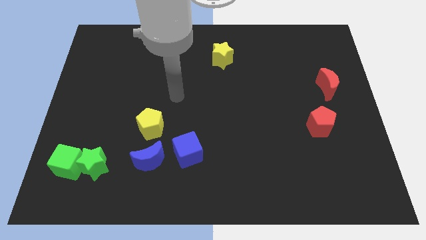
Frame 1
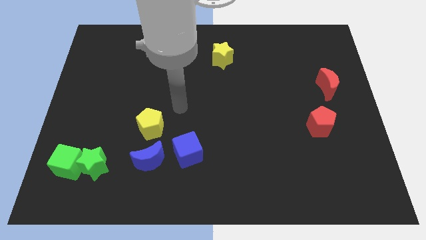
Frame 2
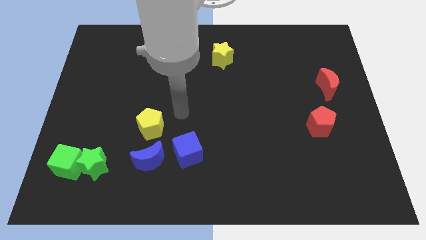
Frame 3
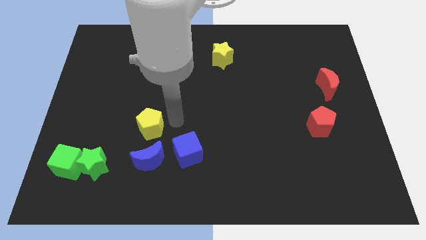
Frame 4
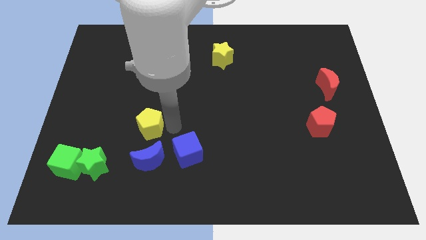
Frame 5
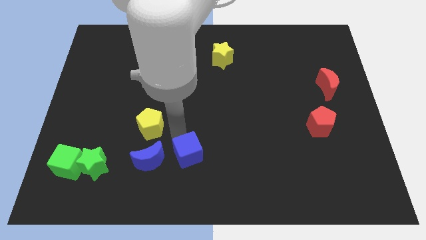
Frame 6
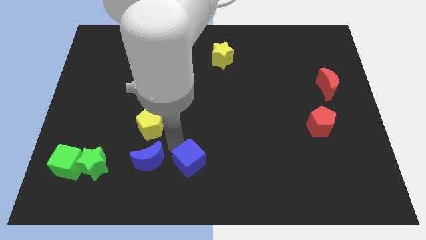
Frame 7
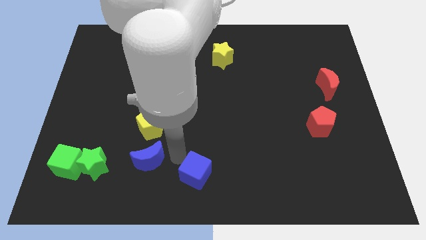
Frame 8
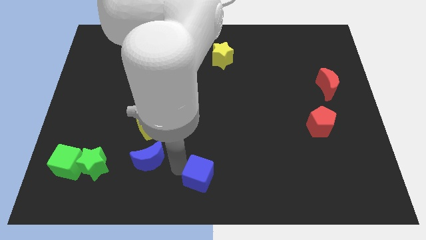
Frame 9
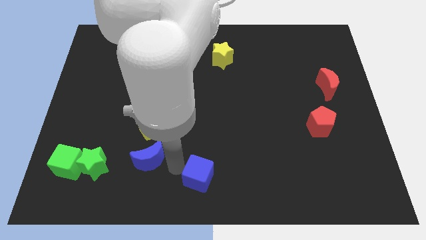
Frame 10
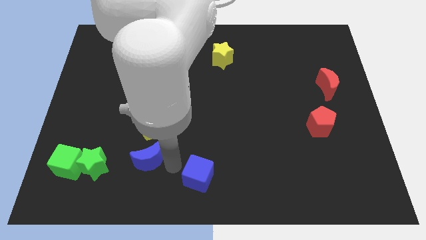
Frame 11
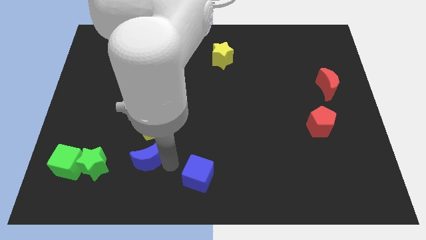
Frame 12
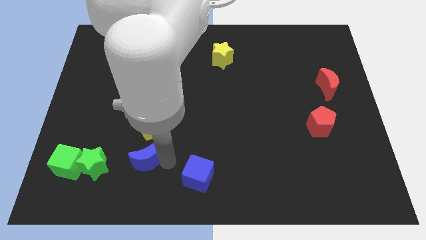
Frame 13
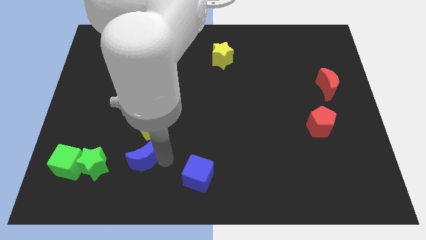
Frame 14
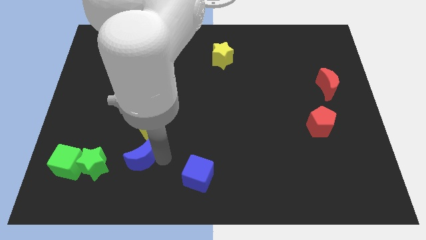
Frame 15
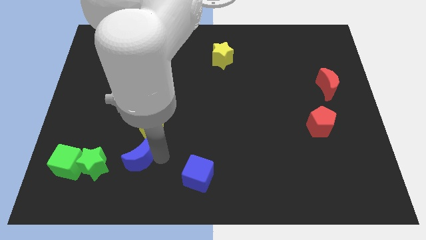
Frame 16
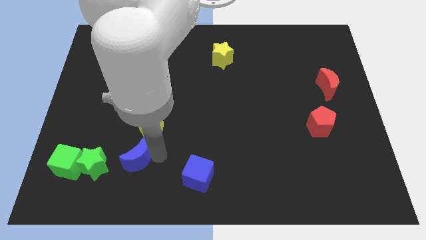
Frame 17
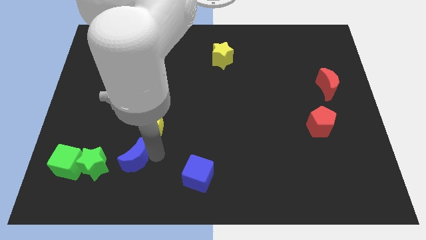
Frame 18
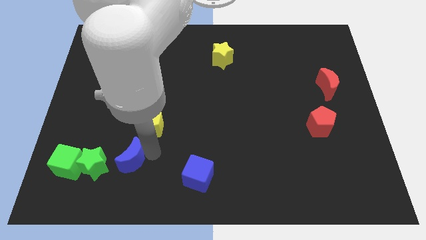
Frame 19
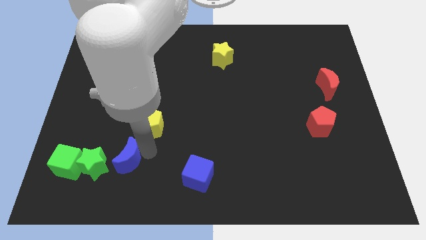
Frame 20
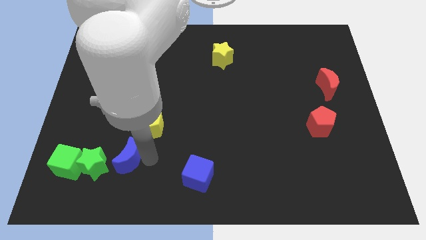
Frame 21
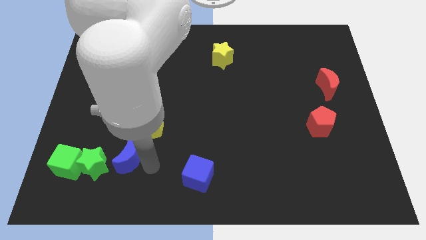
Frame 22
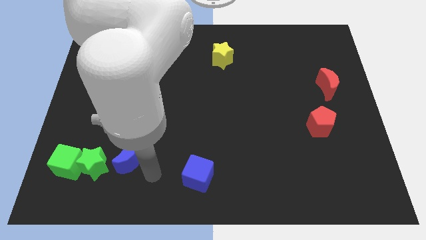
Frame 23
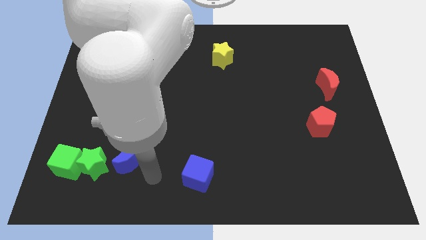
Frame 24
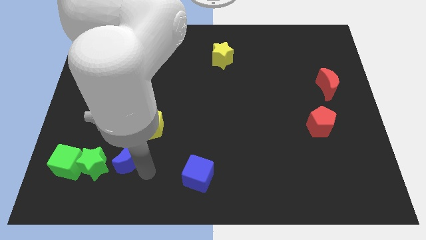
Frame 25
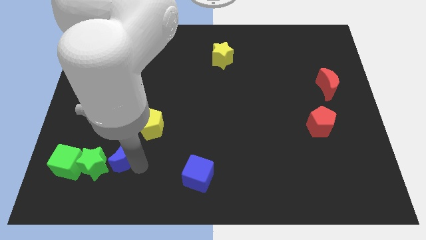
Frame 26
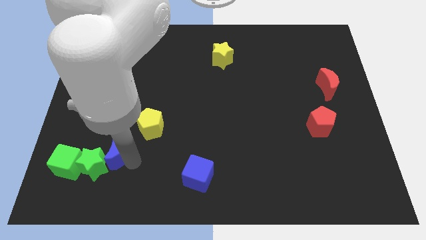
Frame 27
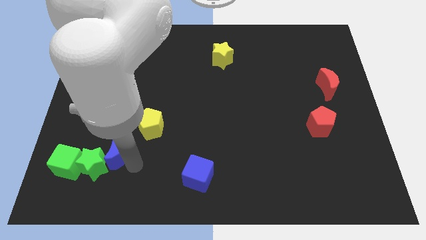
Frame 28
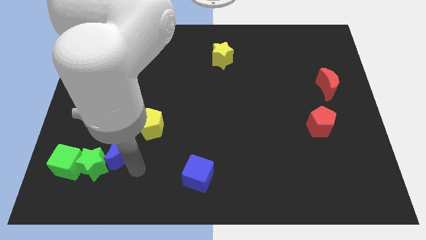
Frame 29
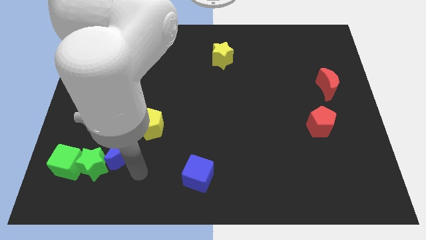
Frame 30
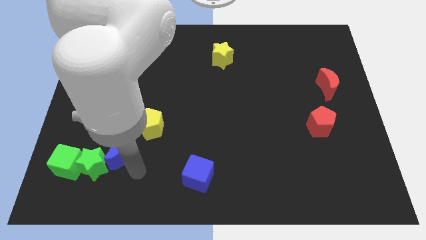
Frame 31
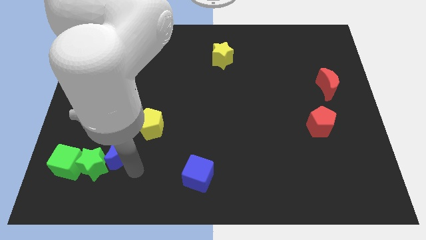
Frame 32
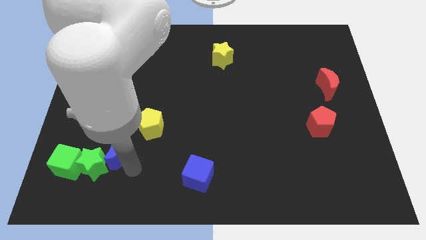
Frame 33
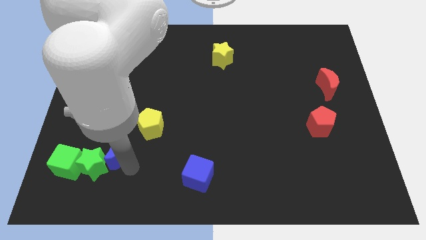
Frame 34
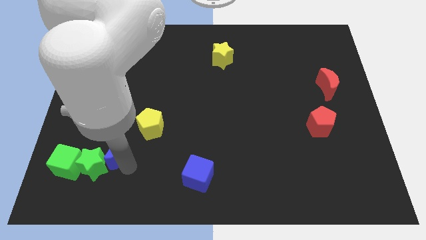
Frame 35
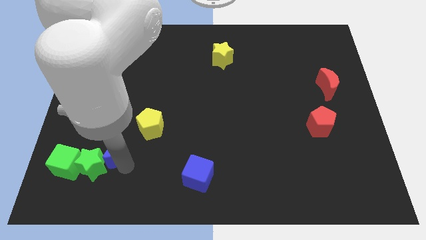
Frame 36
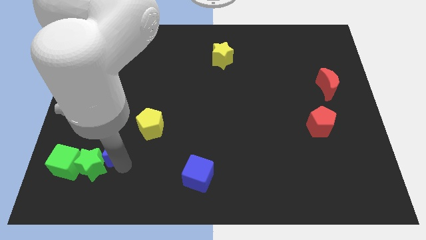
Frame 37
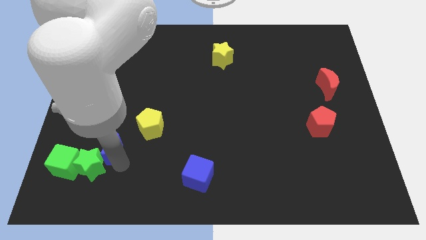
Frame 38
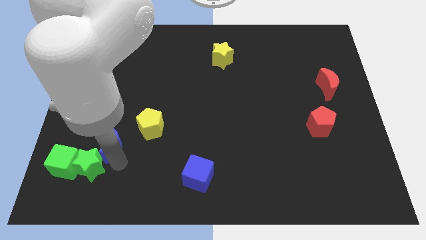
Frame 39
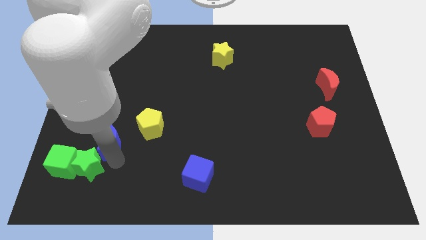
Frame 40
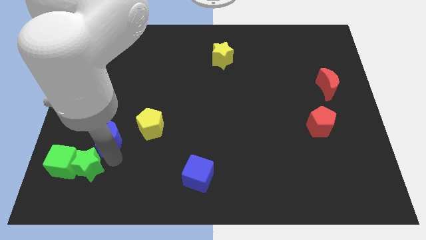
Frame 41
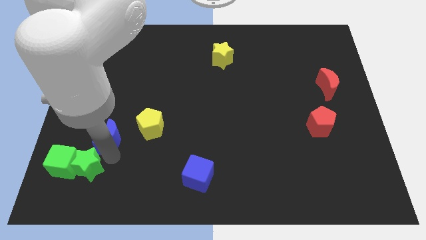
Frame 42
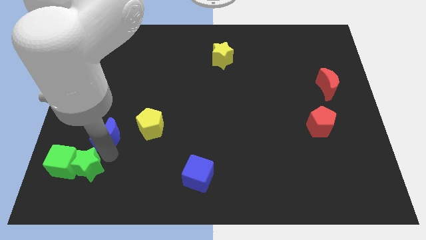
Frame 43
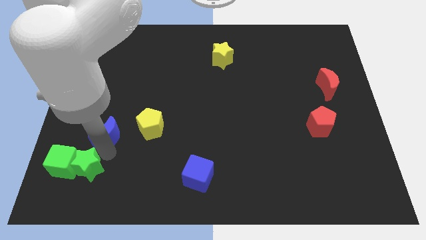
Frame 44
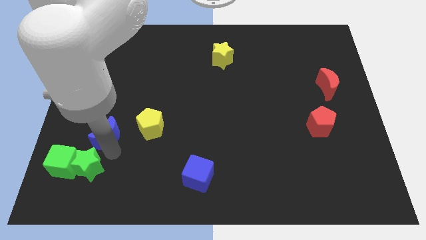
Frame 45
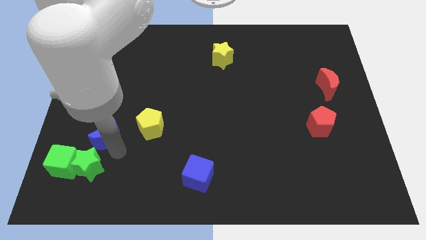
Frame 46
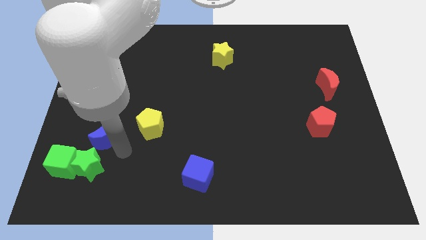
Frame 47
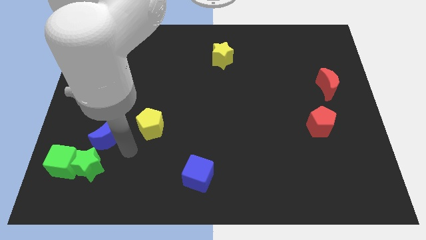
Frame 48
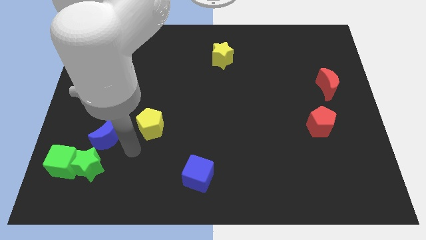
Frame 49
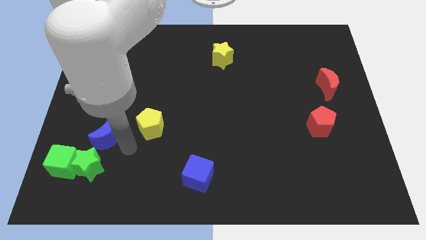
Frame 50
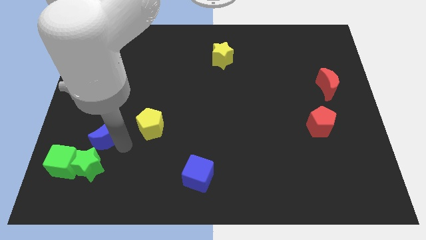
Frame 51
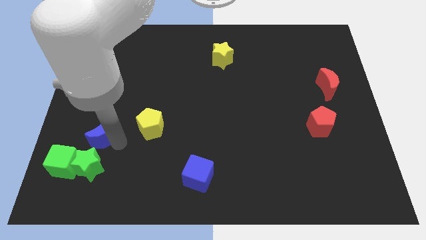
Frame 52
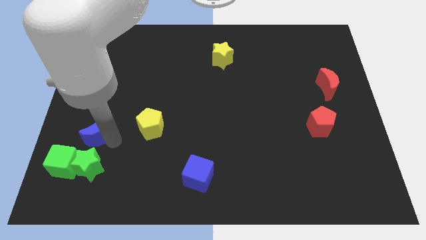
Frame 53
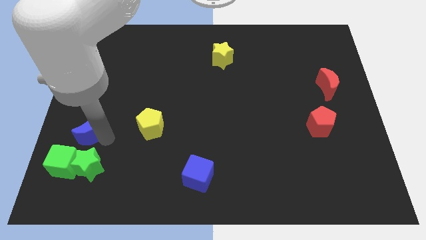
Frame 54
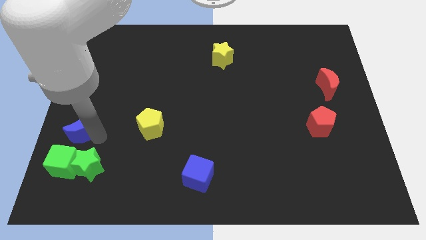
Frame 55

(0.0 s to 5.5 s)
move the blue moon to the center left

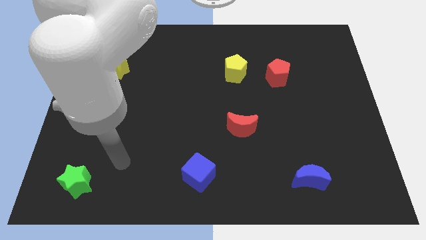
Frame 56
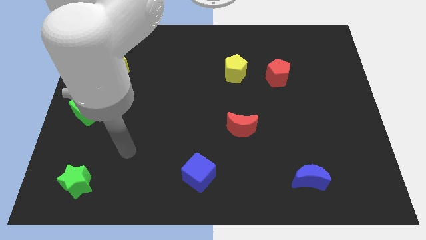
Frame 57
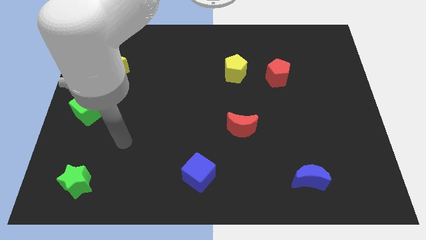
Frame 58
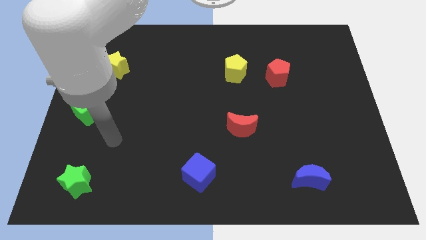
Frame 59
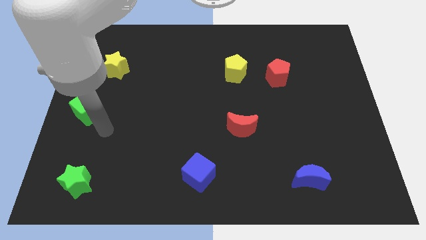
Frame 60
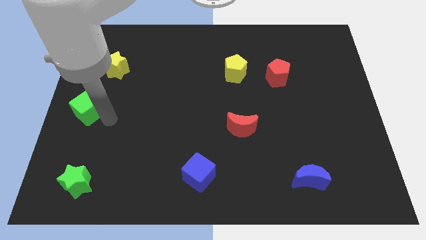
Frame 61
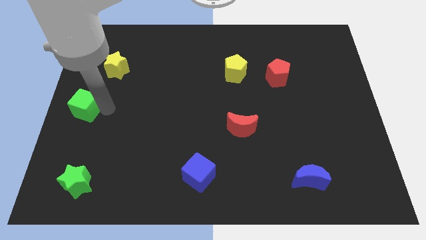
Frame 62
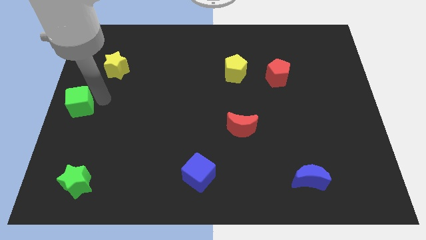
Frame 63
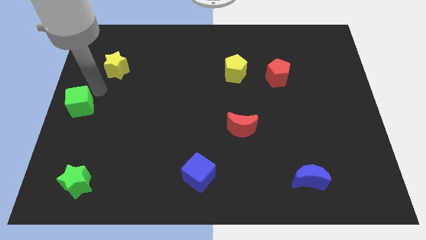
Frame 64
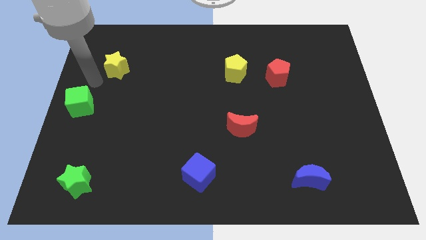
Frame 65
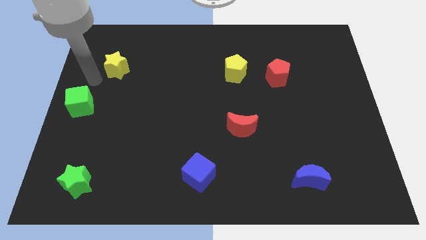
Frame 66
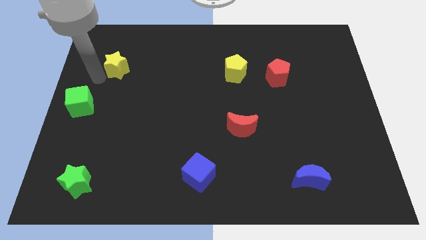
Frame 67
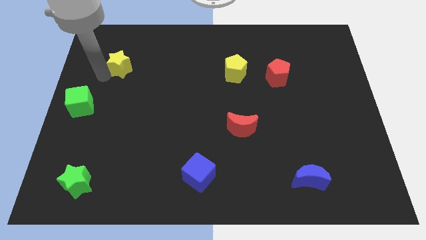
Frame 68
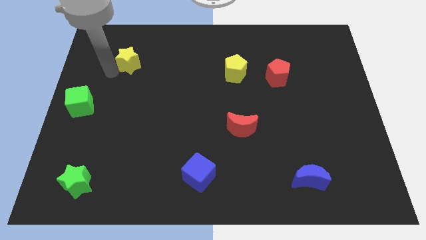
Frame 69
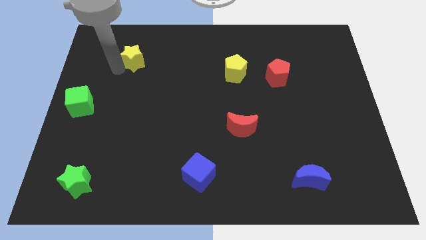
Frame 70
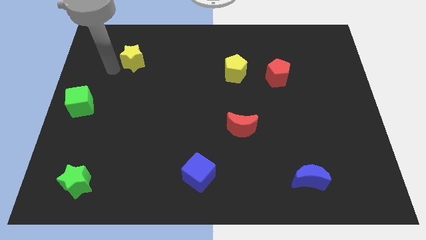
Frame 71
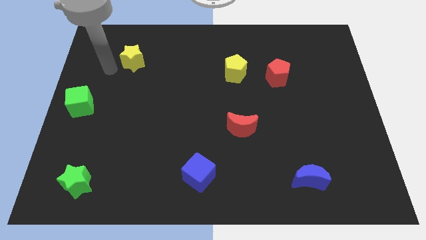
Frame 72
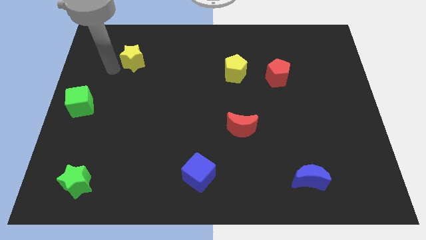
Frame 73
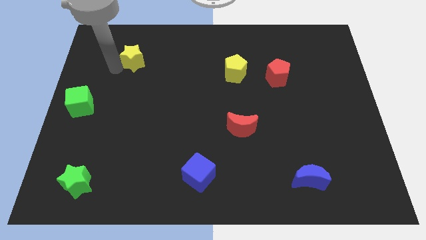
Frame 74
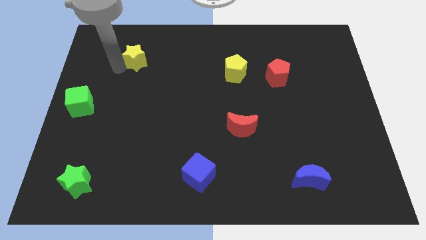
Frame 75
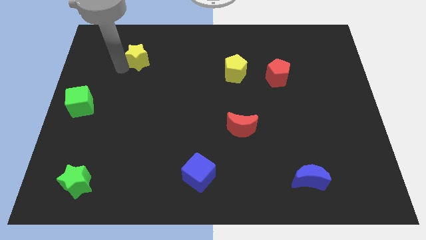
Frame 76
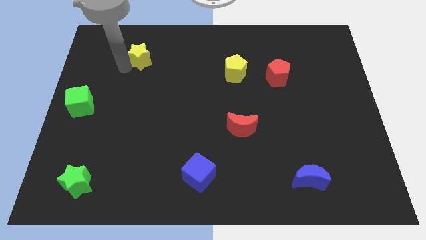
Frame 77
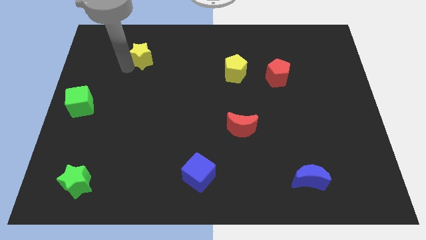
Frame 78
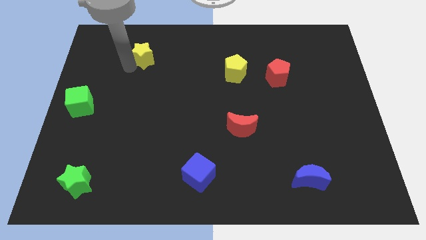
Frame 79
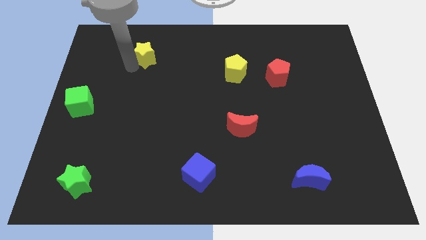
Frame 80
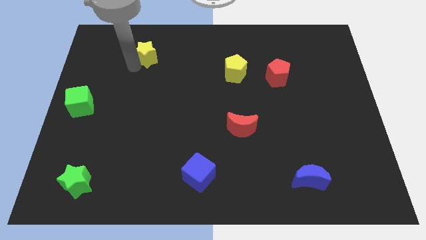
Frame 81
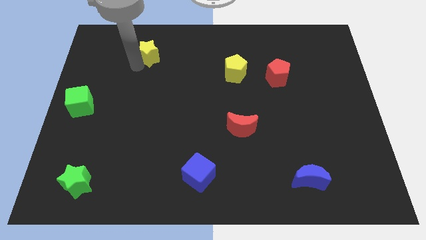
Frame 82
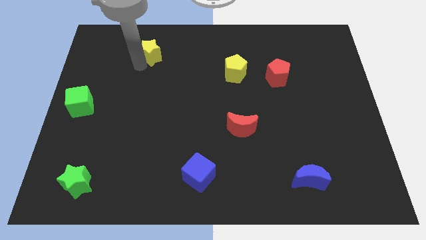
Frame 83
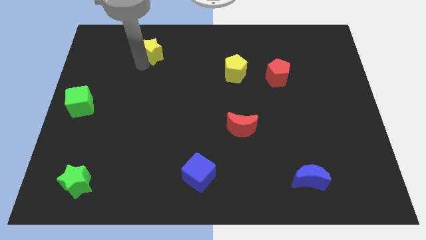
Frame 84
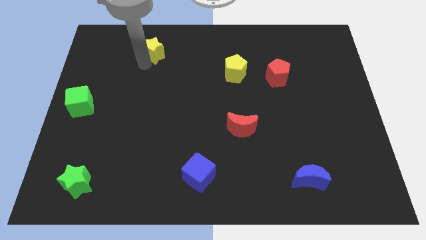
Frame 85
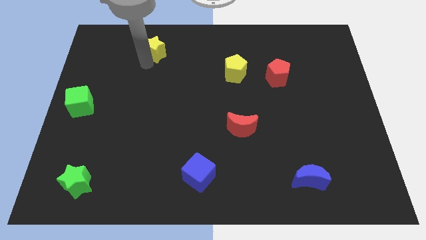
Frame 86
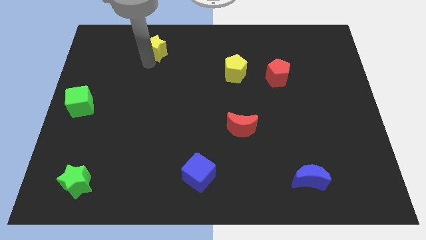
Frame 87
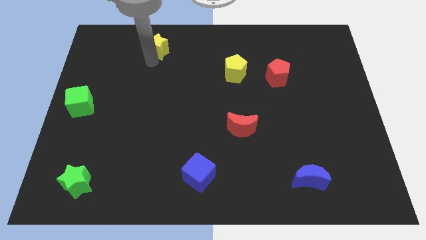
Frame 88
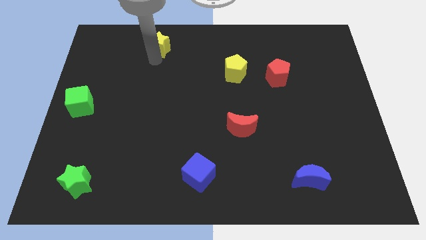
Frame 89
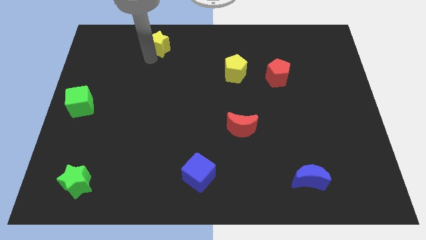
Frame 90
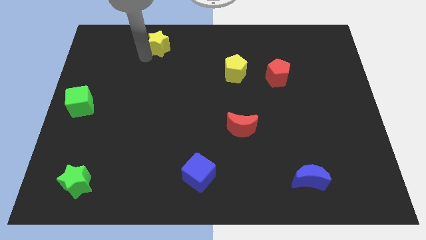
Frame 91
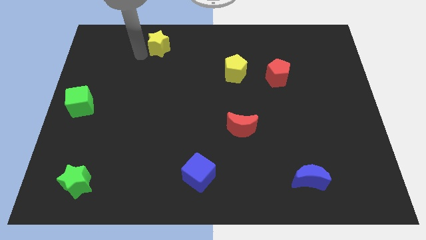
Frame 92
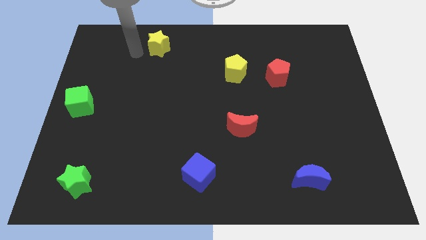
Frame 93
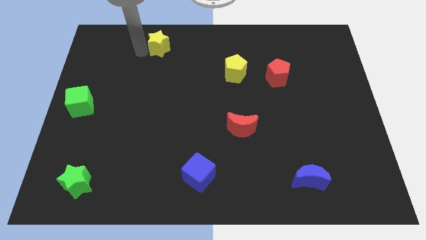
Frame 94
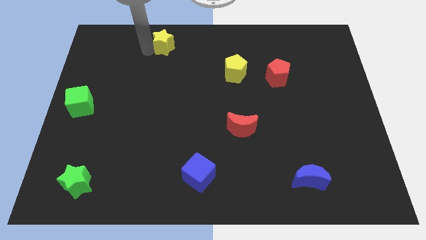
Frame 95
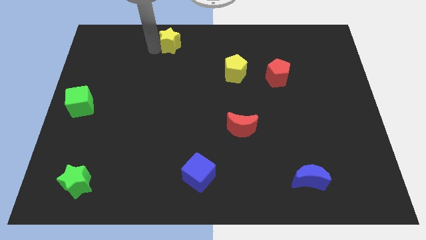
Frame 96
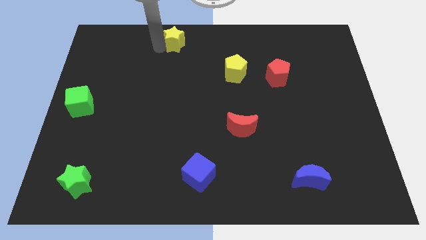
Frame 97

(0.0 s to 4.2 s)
put the yellow star to the top
